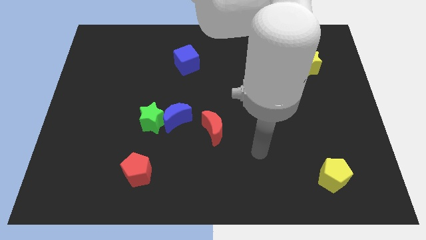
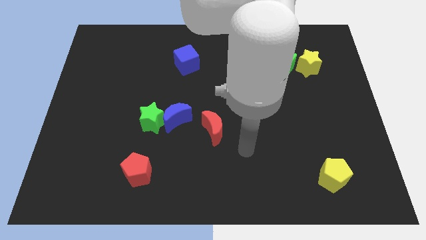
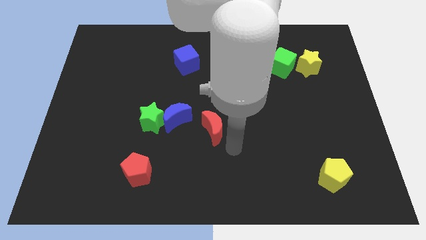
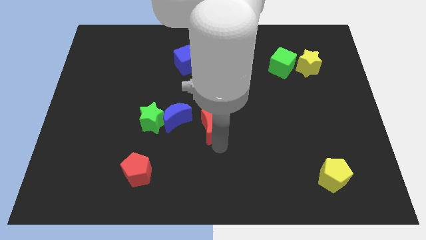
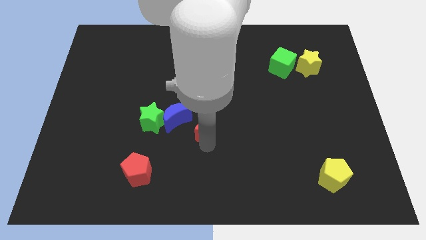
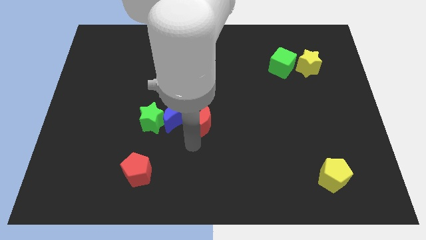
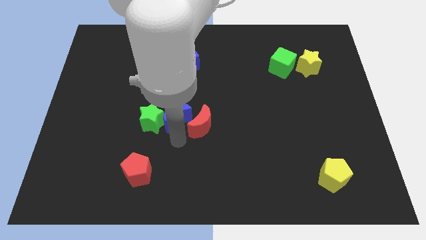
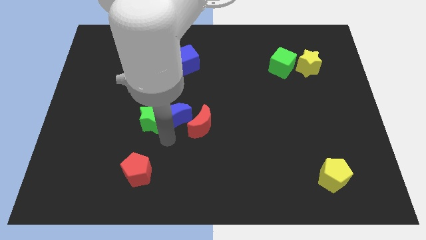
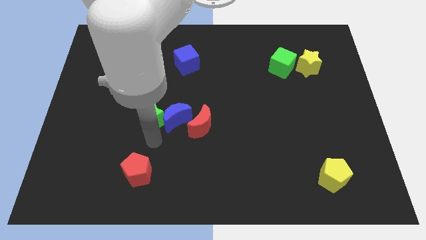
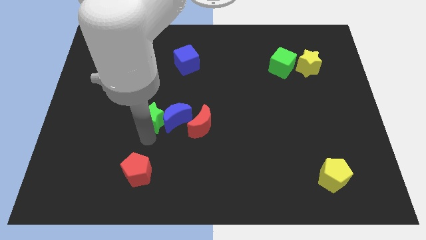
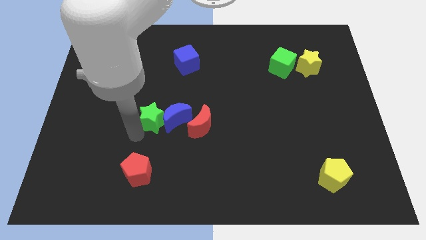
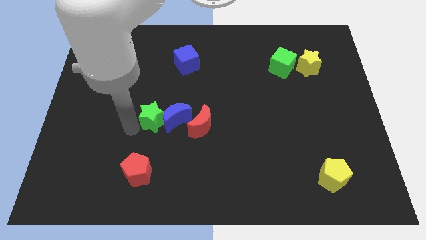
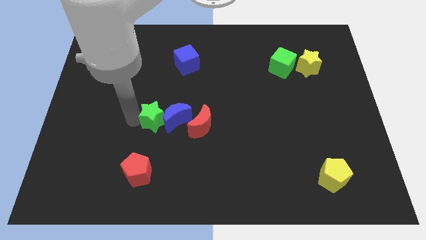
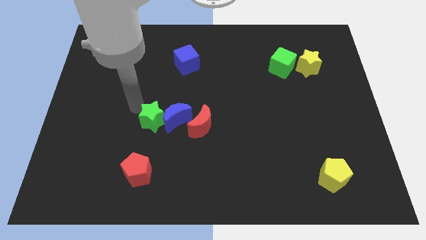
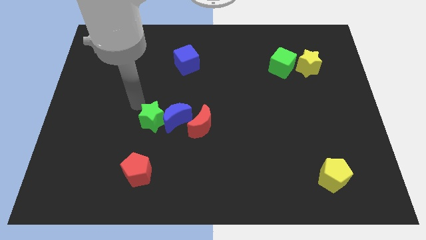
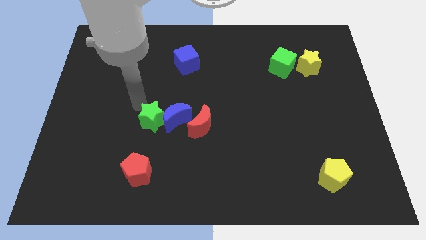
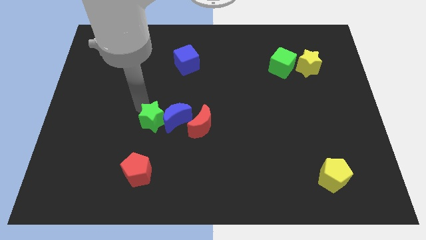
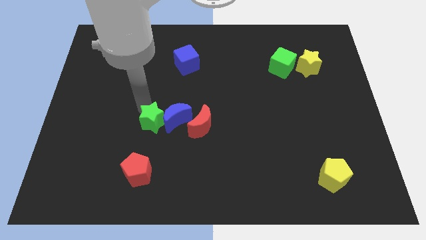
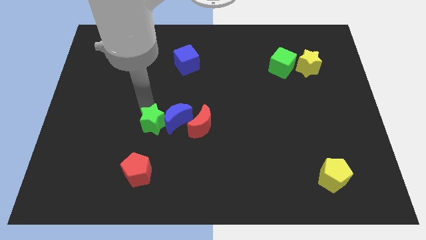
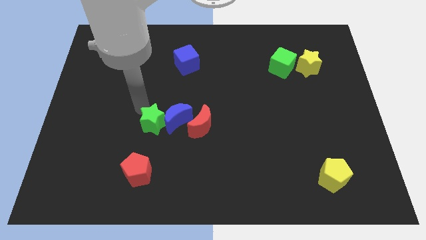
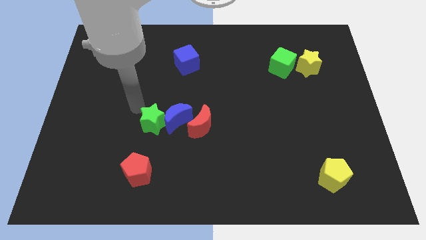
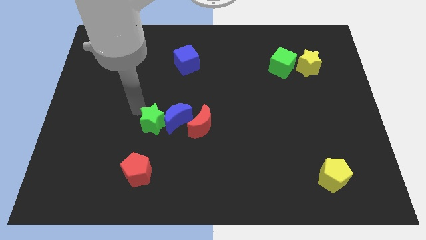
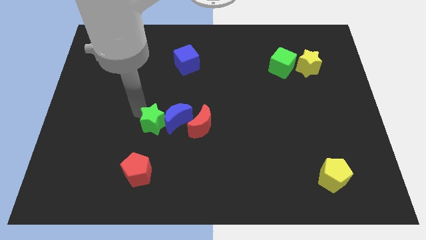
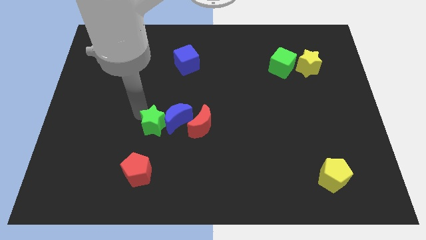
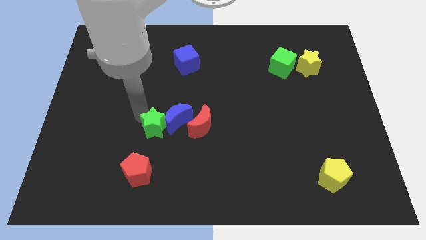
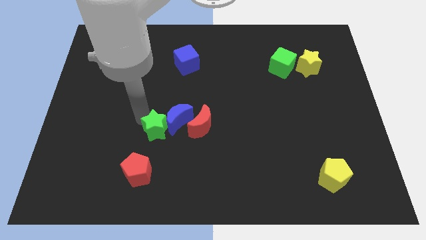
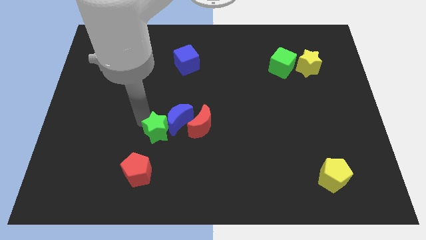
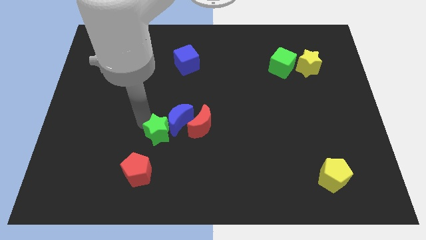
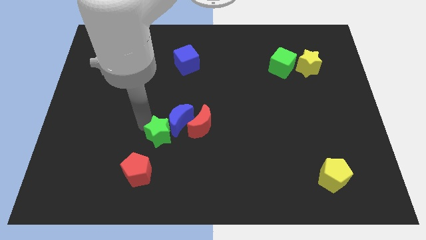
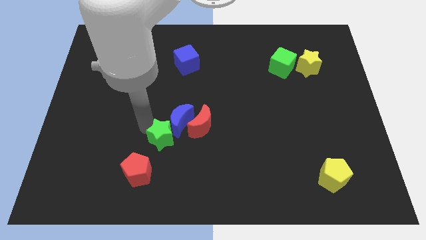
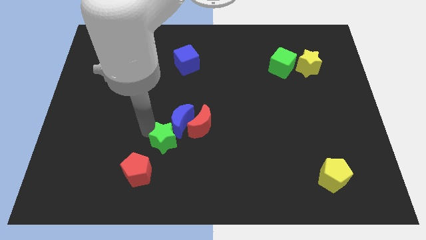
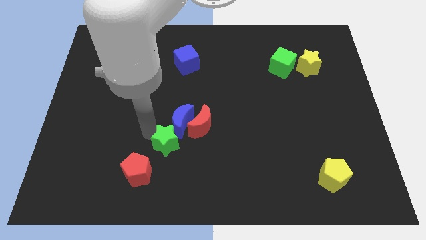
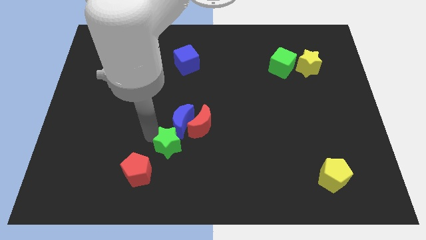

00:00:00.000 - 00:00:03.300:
slightly push the green star diagonally down and to the right

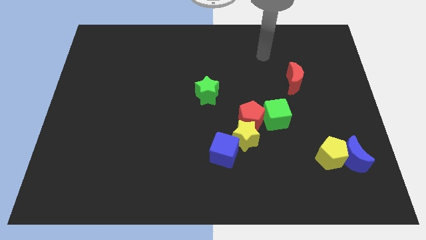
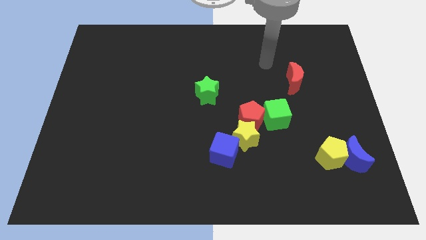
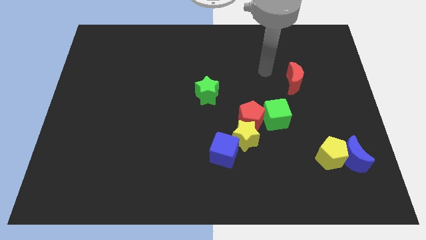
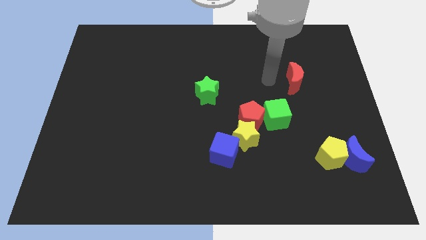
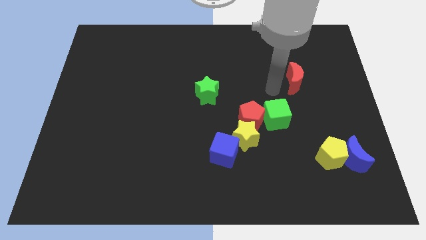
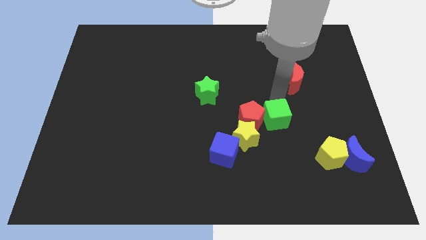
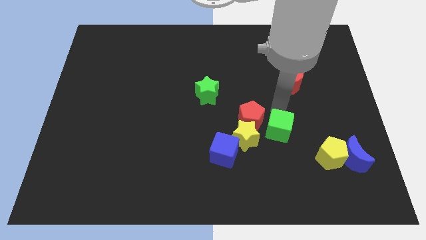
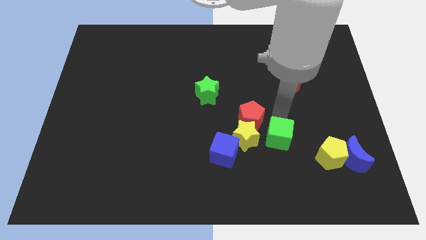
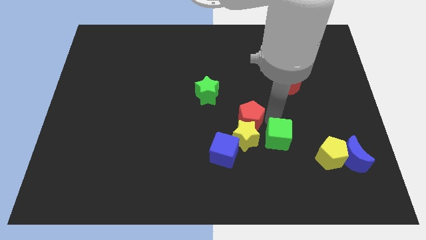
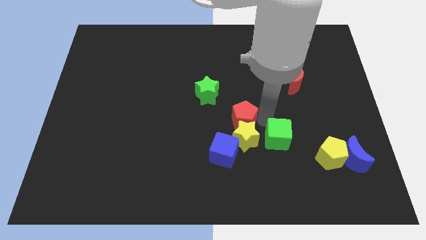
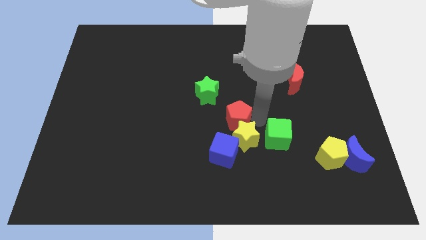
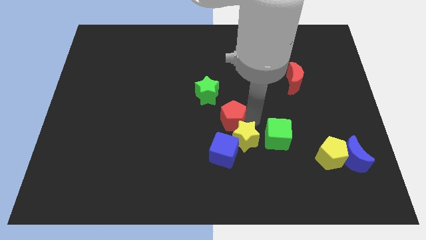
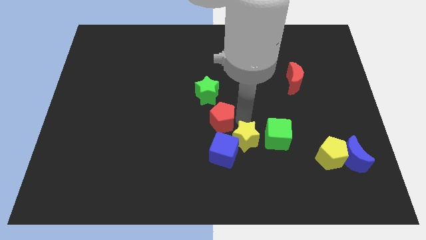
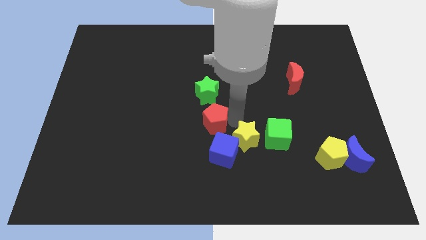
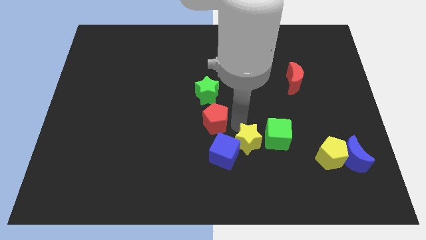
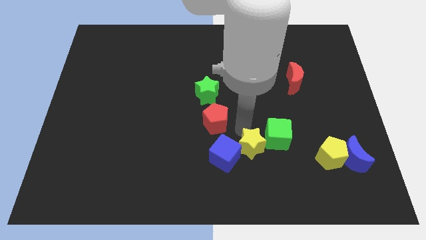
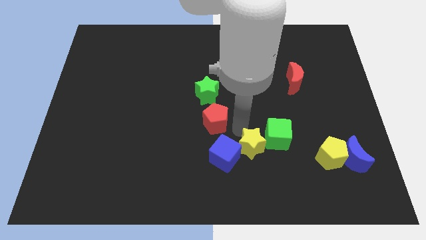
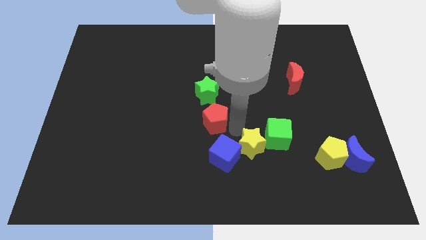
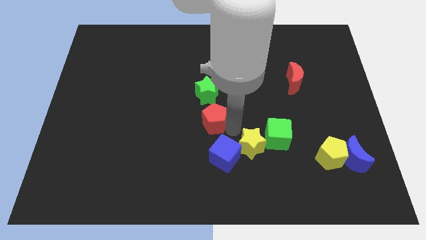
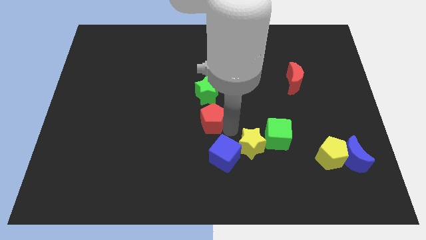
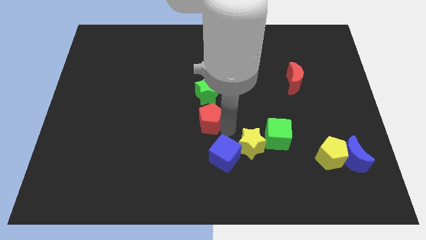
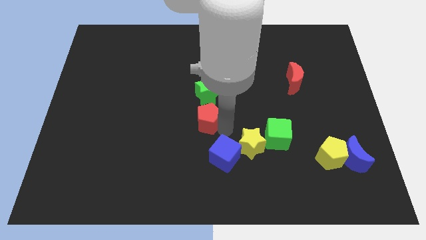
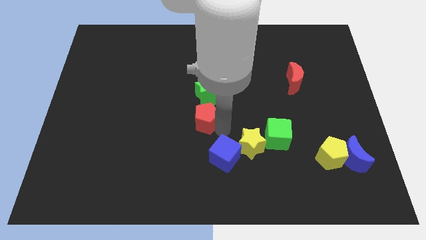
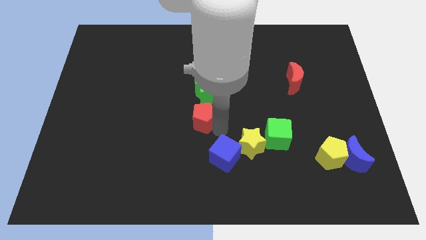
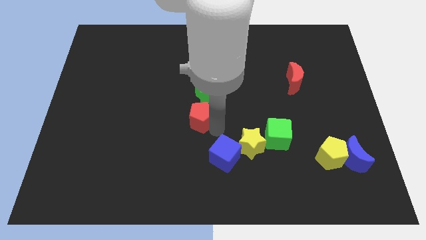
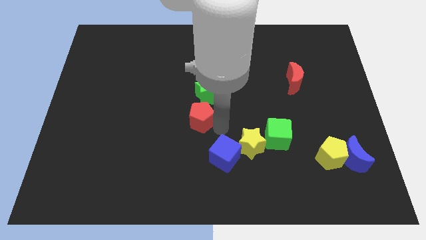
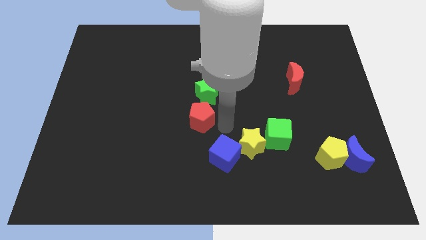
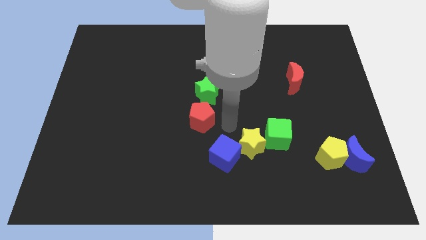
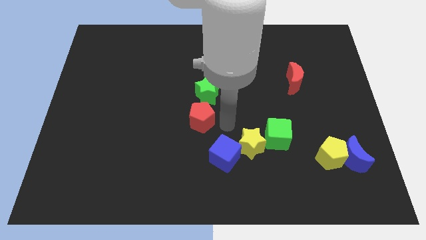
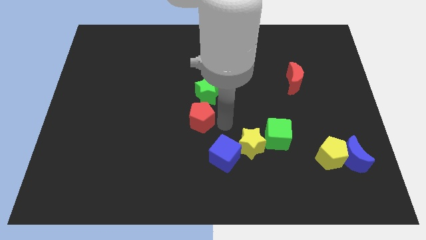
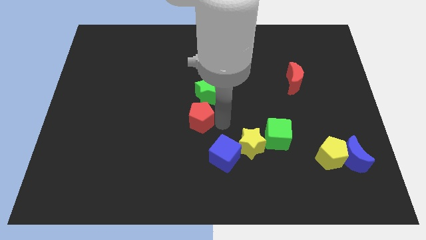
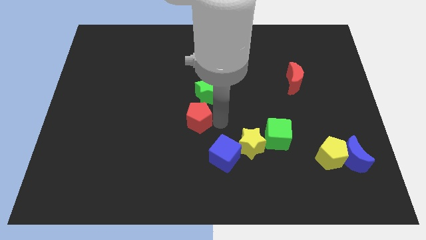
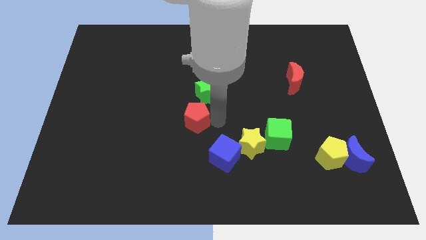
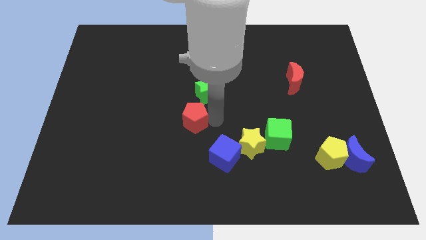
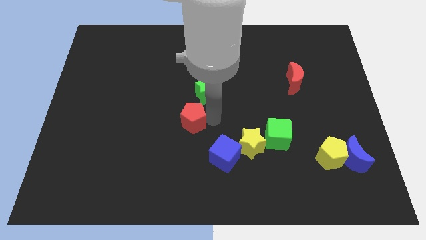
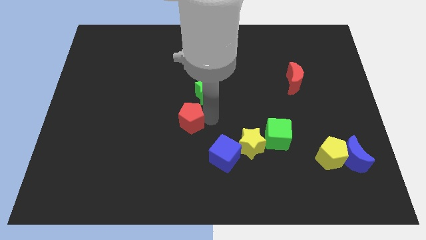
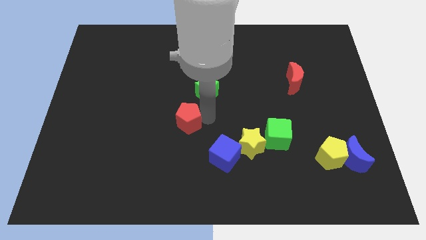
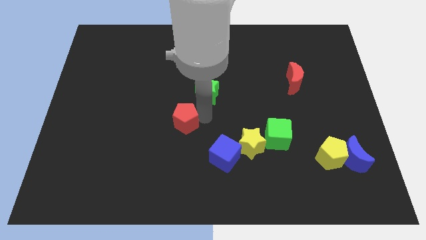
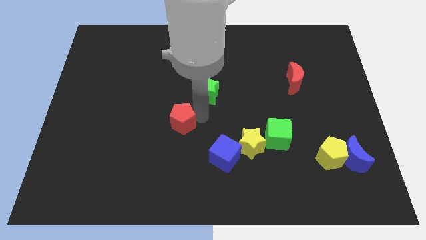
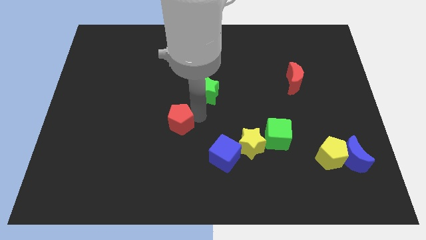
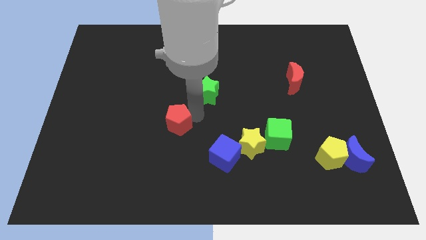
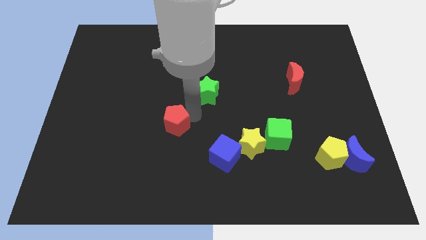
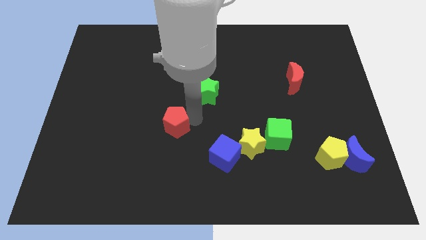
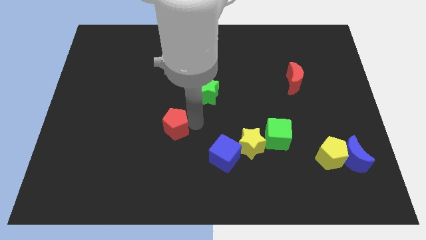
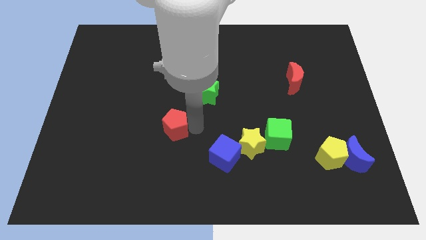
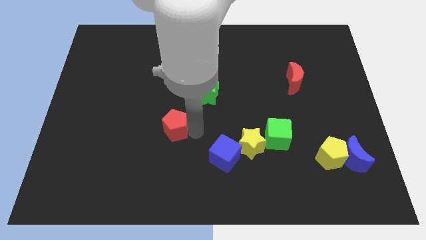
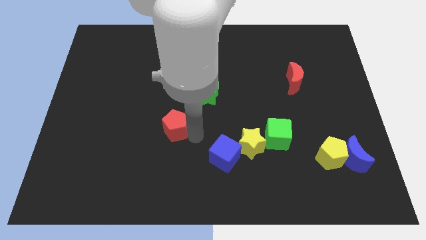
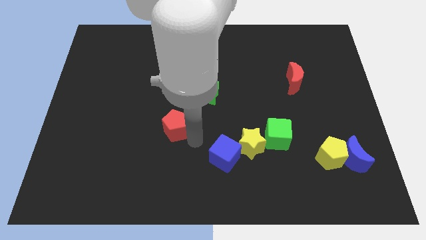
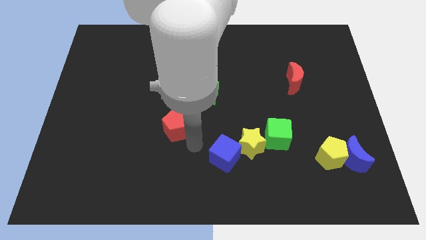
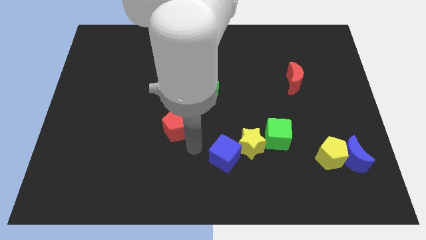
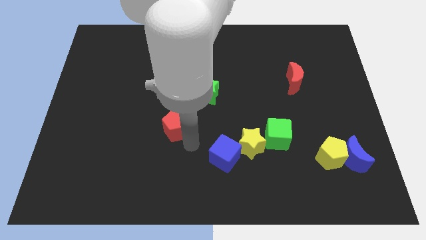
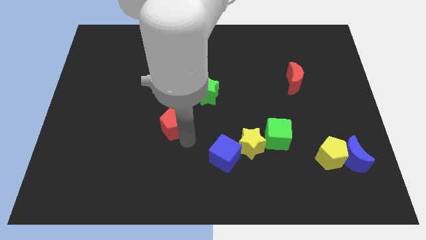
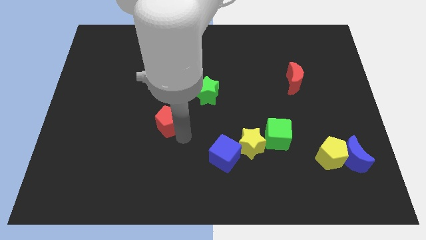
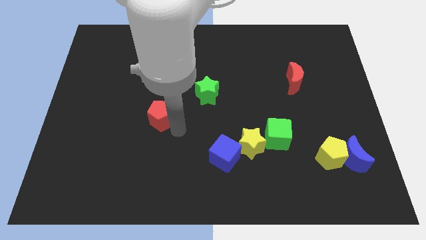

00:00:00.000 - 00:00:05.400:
move the red pentagon to the left
